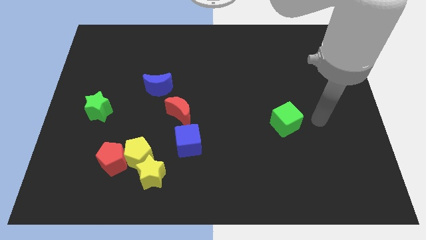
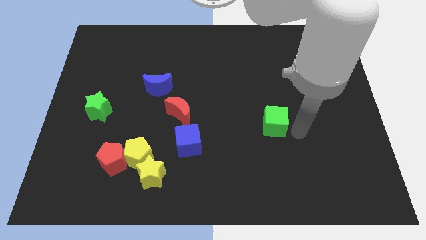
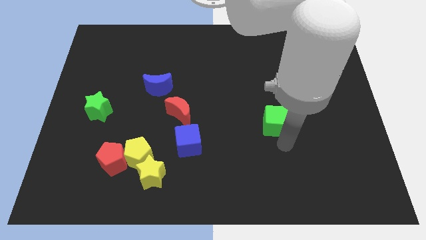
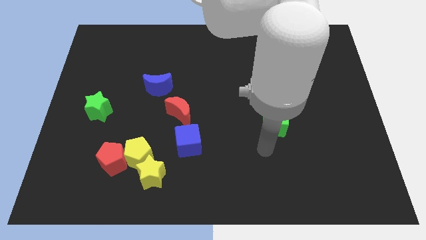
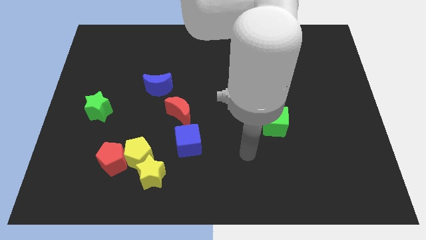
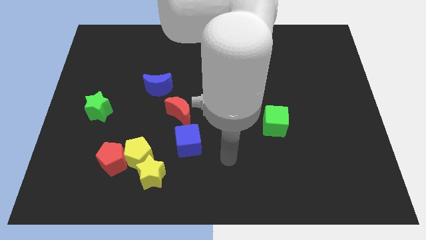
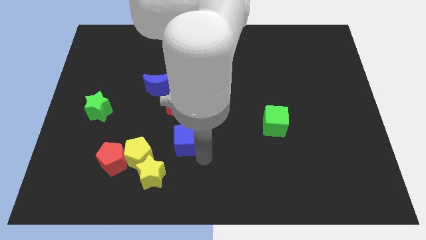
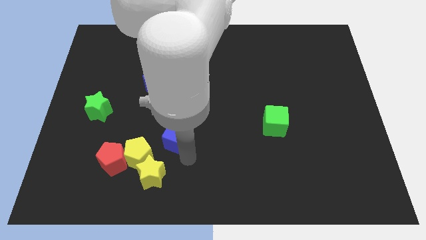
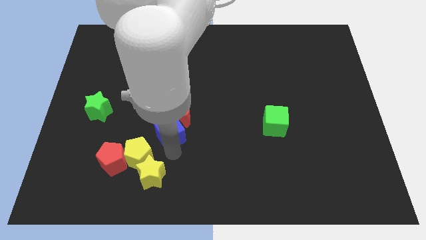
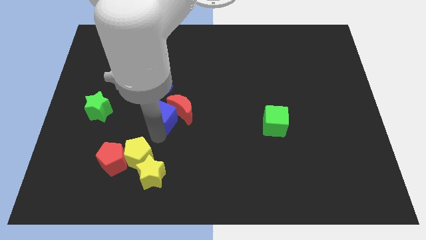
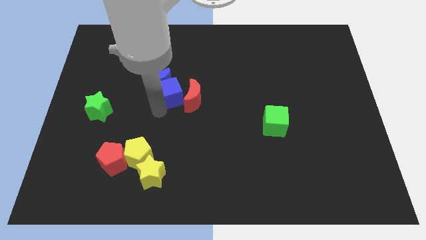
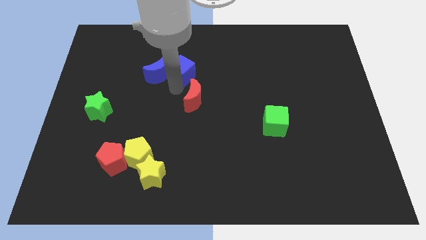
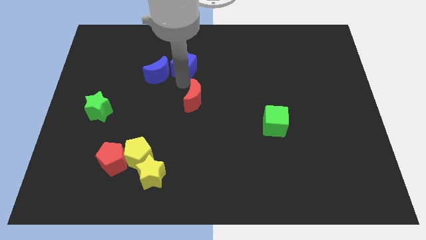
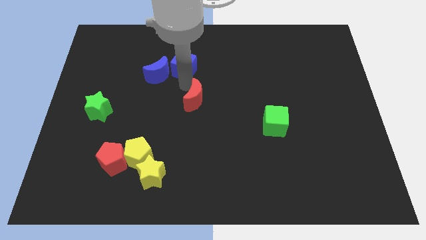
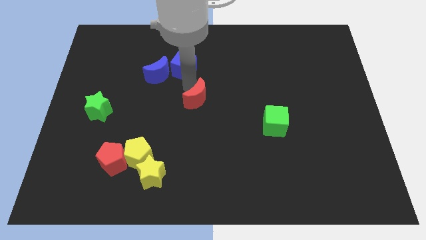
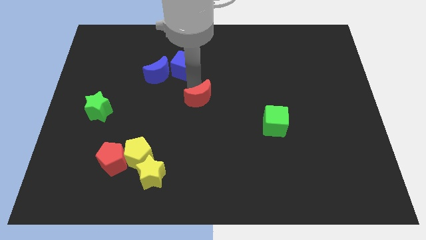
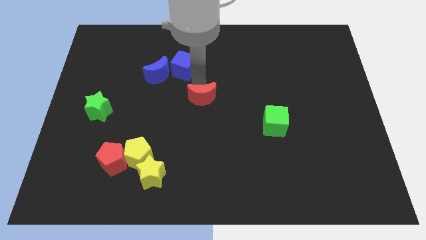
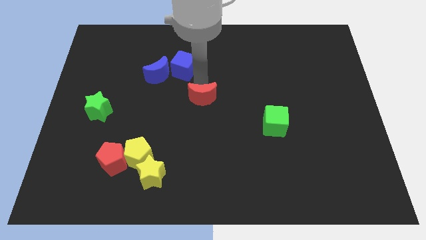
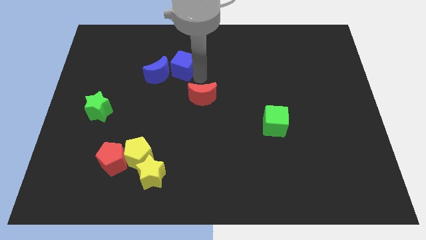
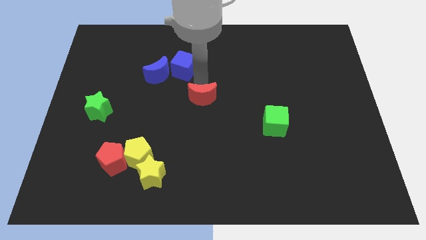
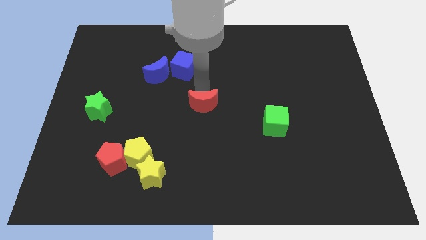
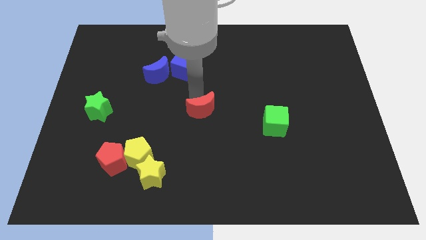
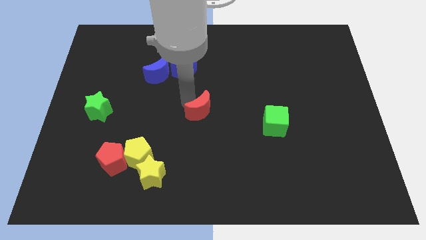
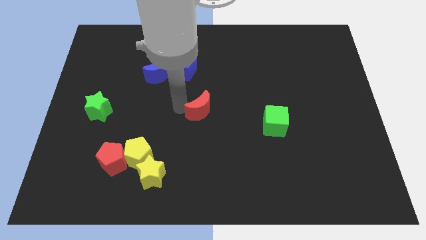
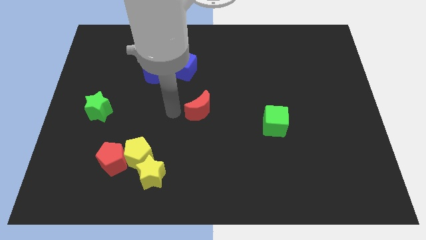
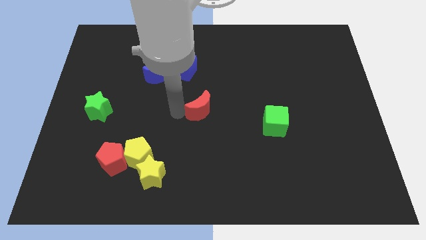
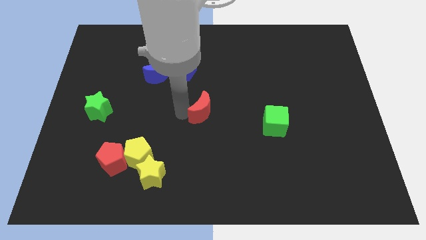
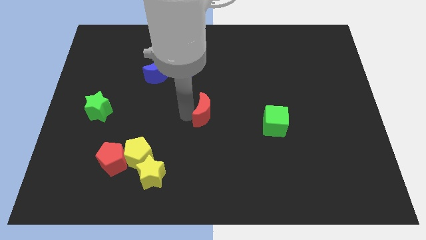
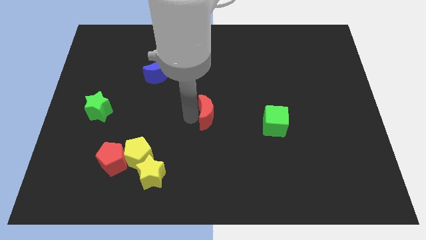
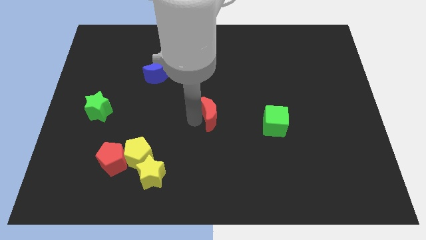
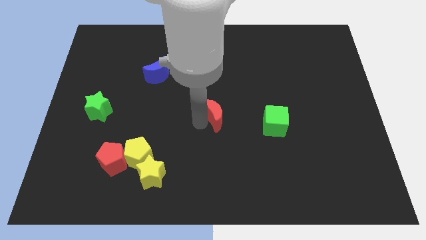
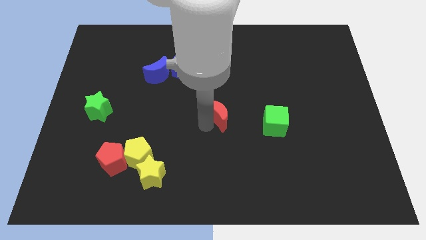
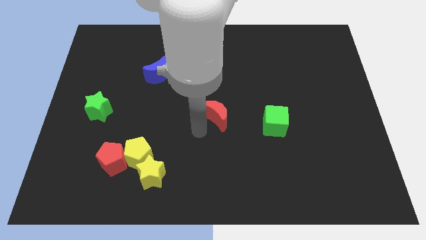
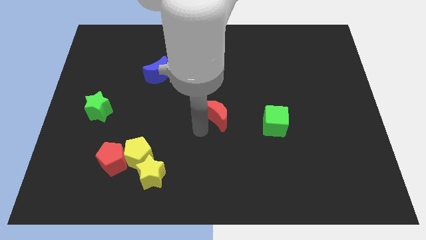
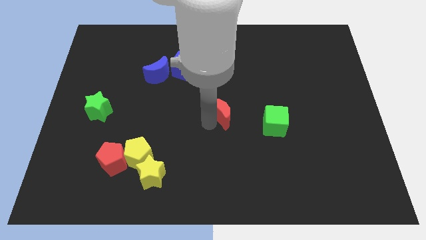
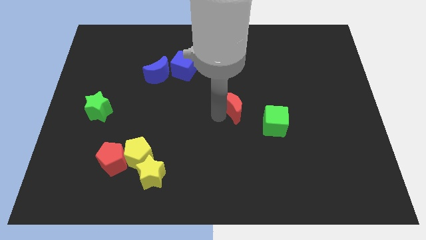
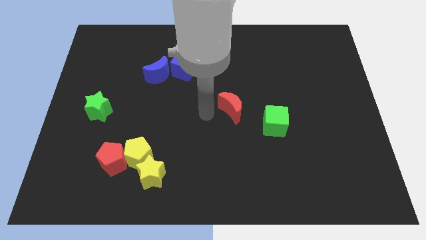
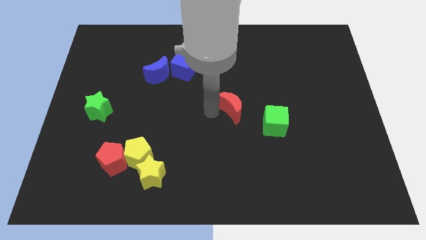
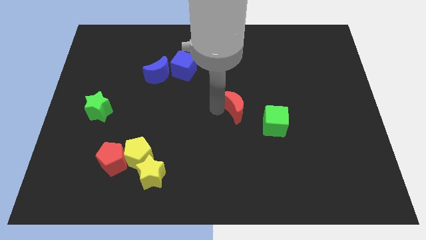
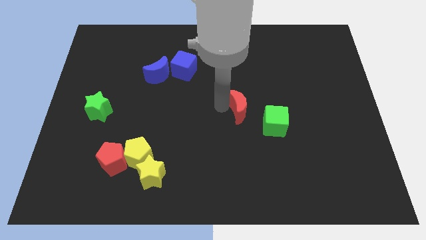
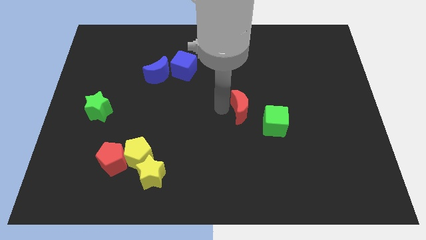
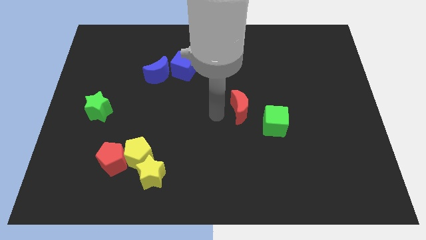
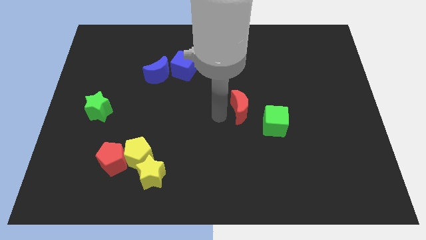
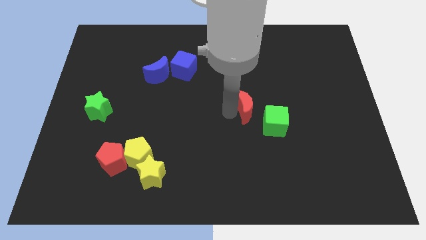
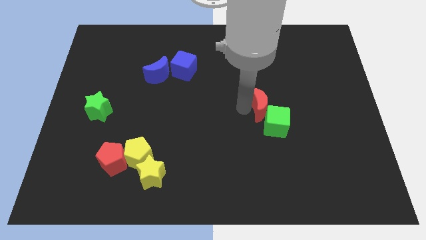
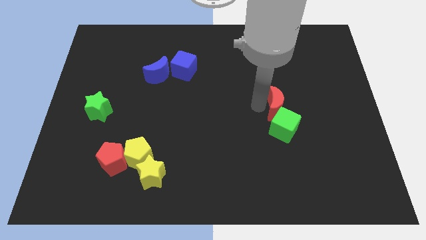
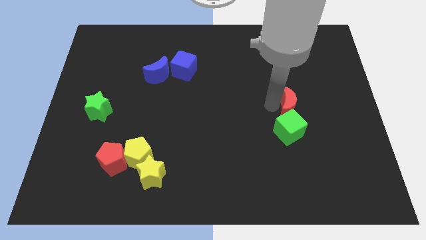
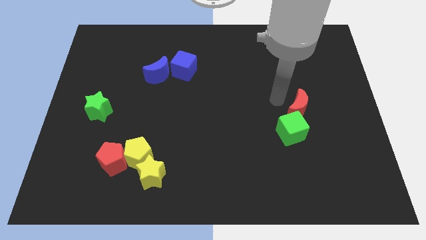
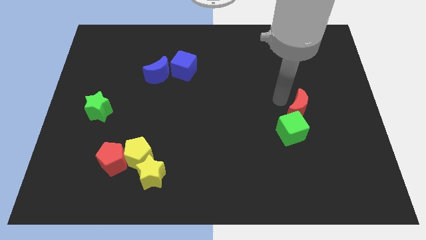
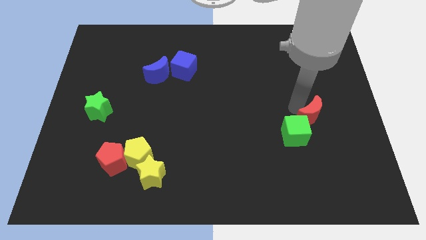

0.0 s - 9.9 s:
move the red moon right of the green cube

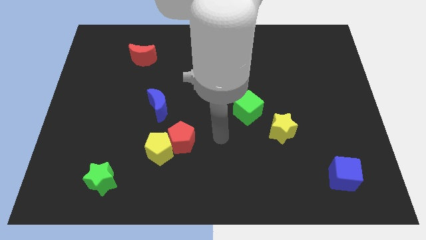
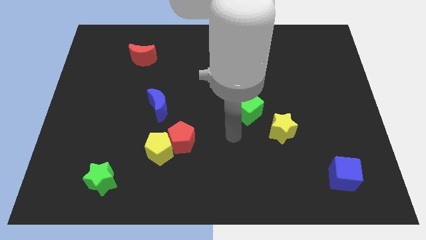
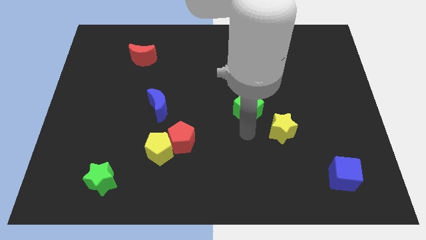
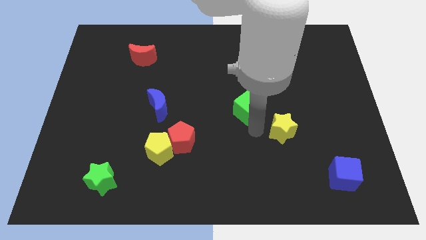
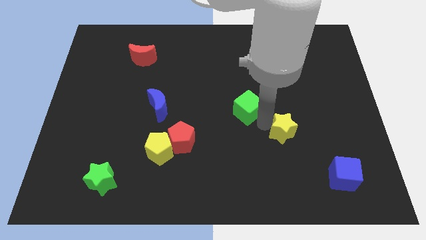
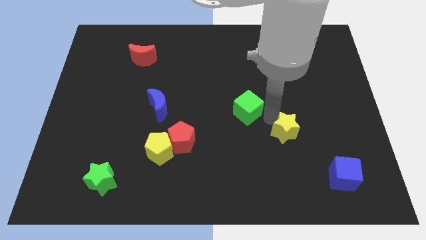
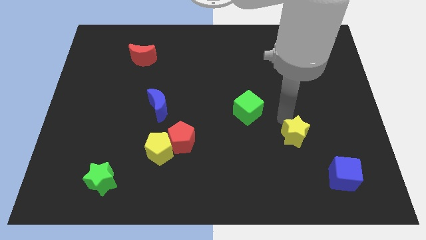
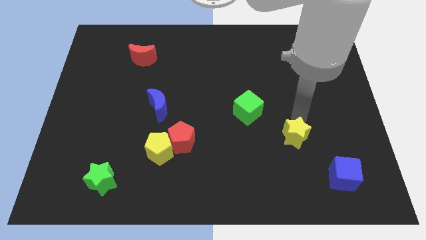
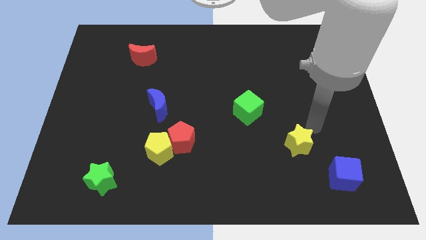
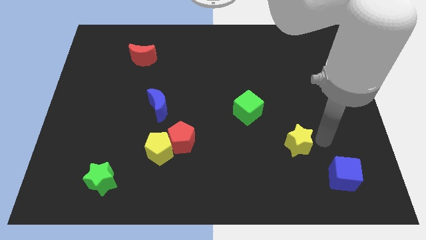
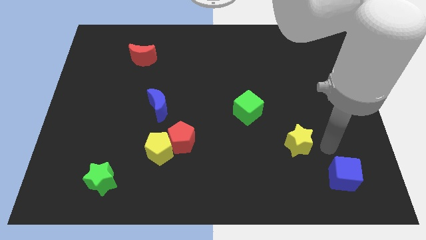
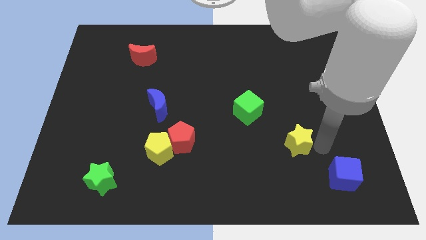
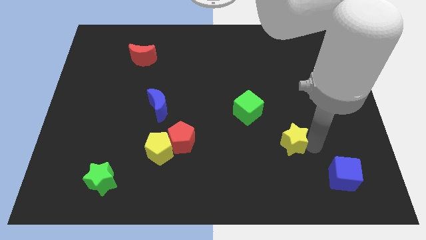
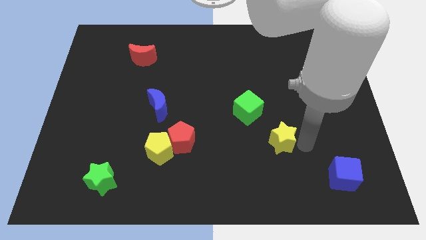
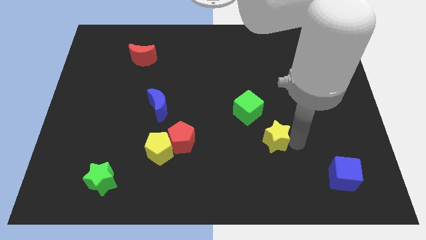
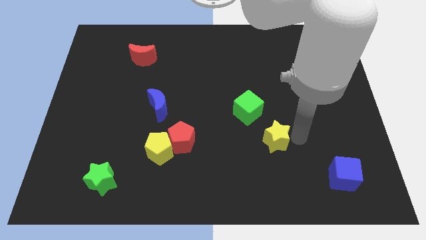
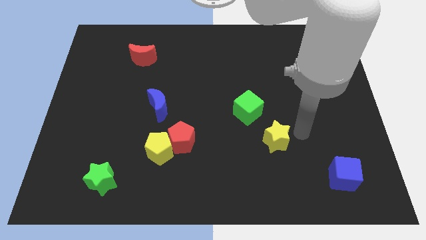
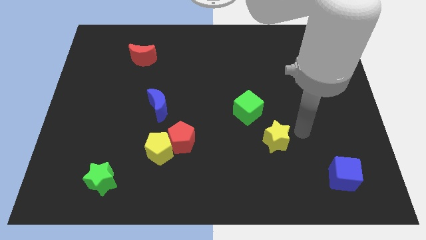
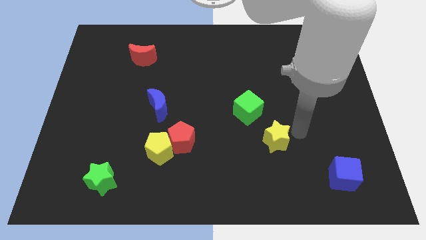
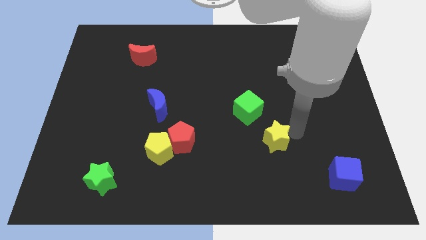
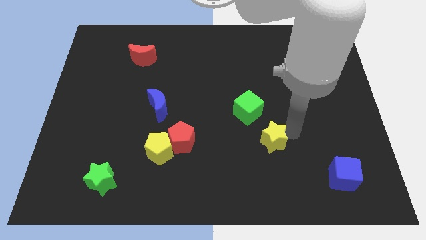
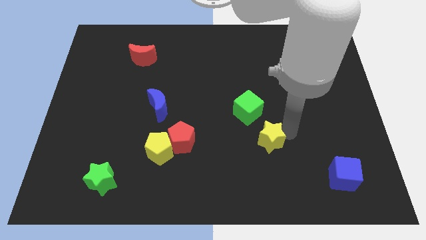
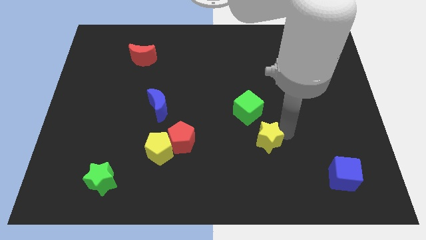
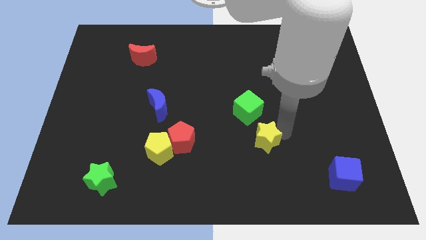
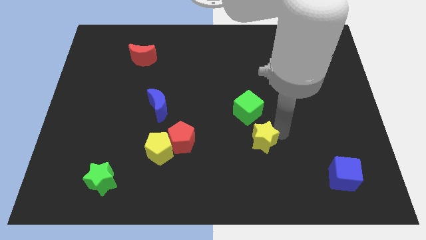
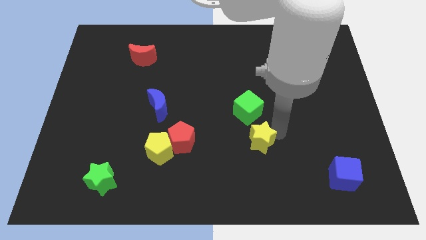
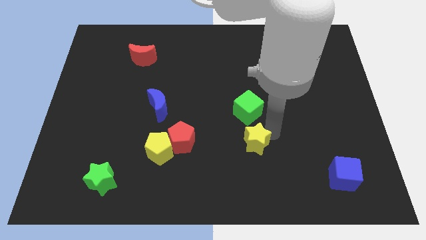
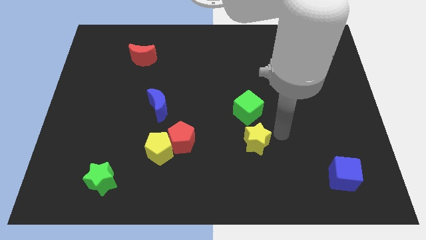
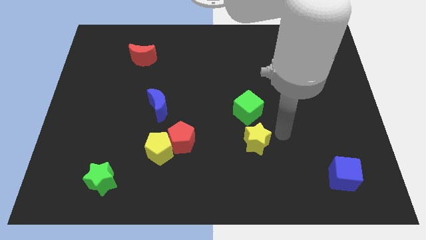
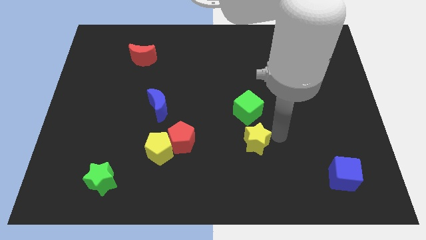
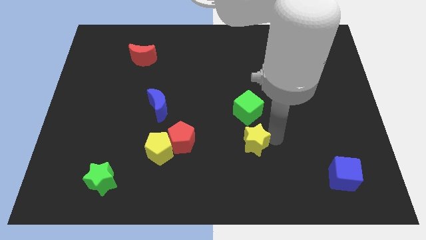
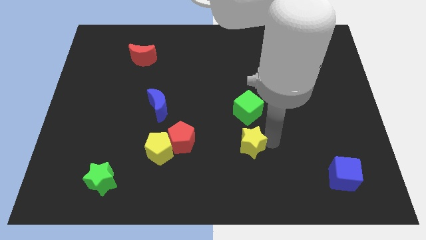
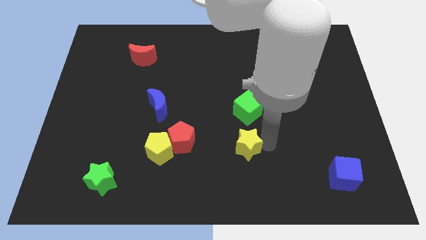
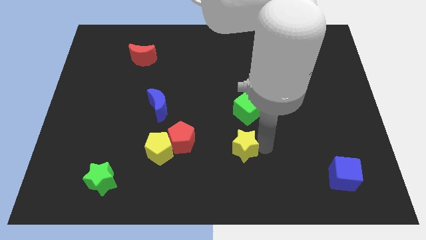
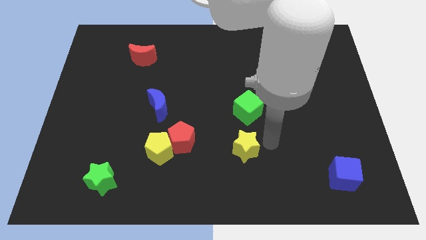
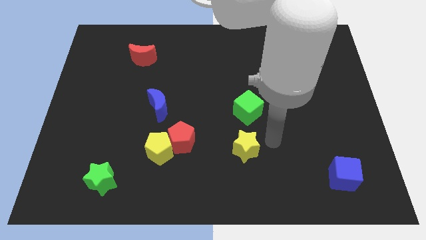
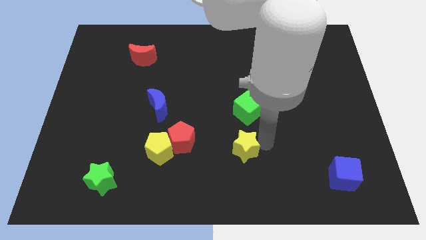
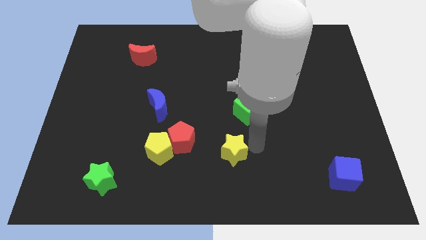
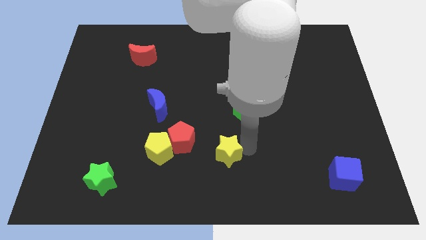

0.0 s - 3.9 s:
put the yellow star diagonally down and to the right of the red pentagon
